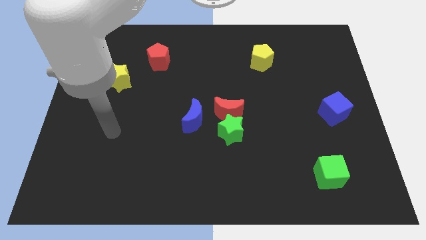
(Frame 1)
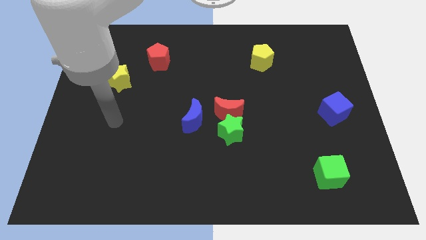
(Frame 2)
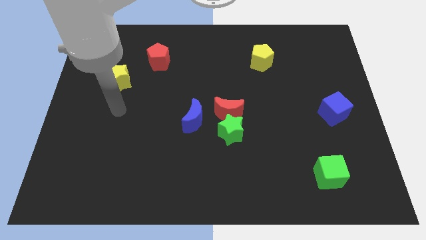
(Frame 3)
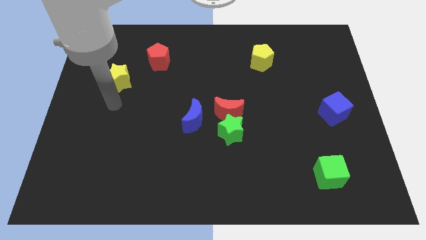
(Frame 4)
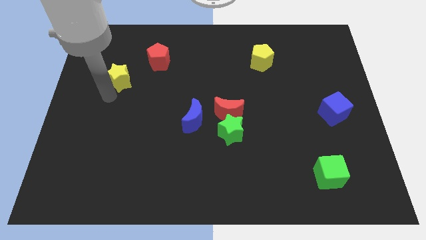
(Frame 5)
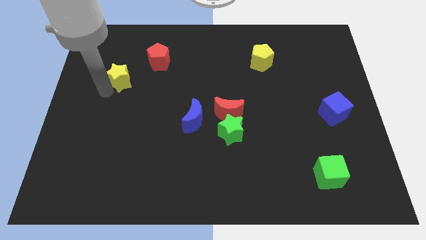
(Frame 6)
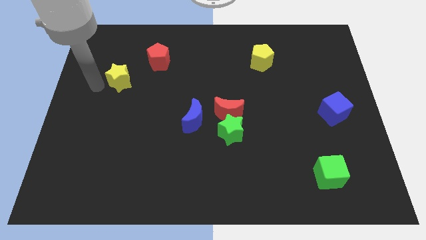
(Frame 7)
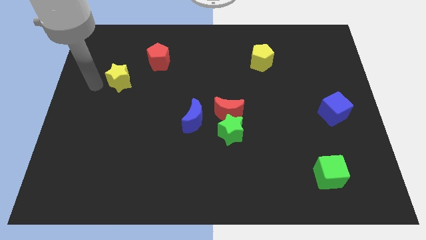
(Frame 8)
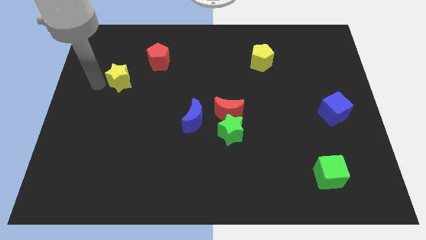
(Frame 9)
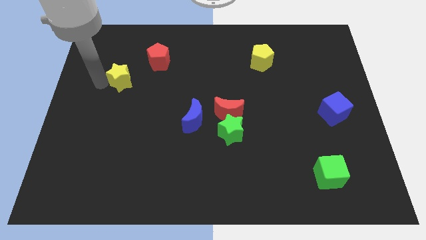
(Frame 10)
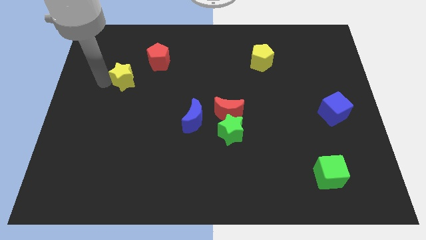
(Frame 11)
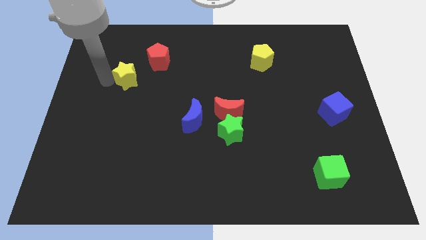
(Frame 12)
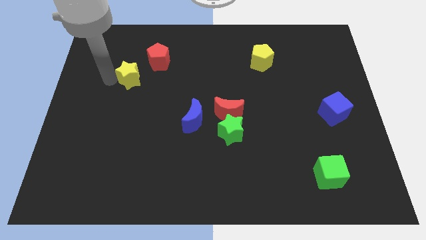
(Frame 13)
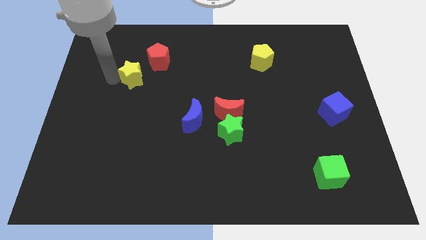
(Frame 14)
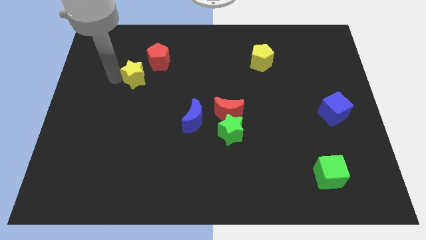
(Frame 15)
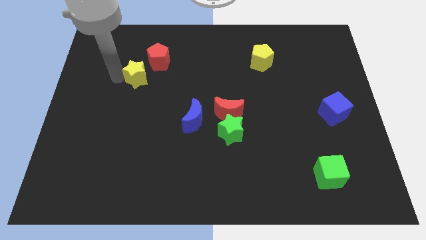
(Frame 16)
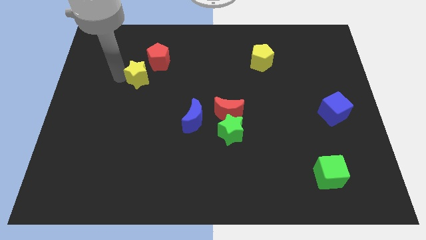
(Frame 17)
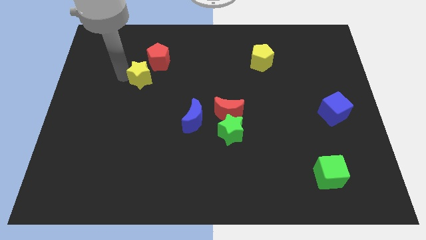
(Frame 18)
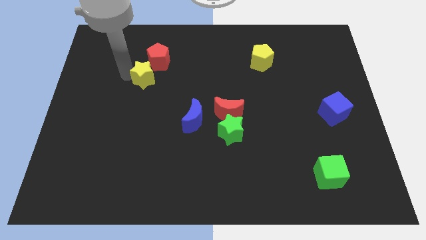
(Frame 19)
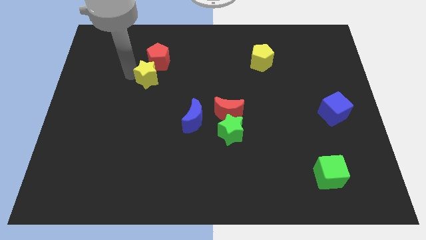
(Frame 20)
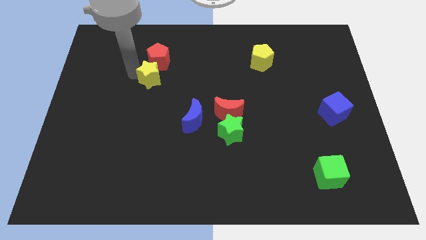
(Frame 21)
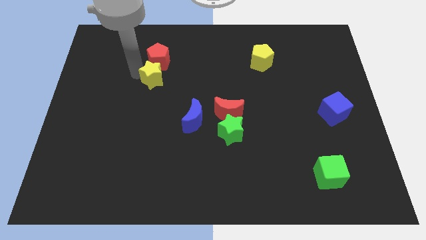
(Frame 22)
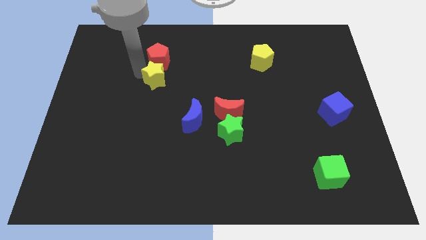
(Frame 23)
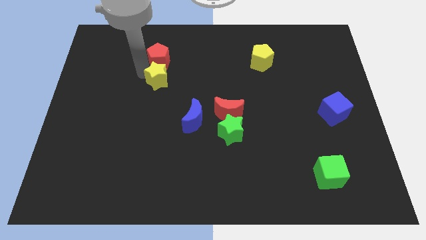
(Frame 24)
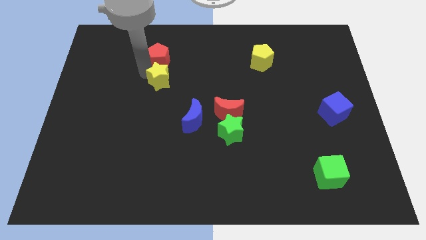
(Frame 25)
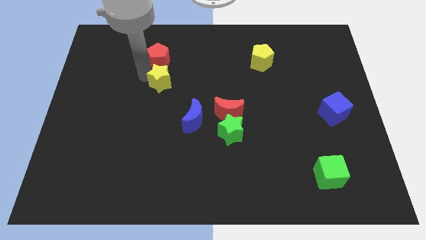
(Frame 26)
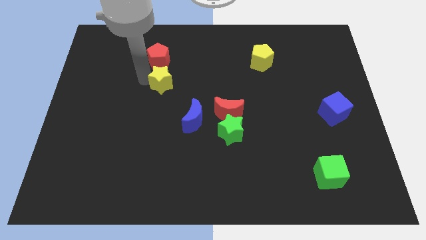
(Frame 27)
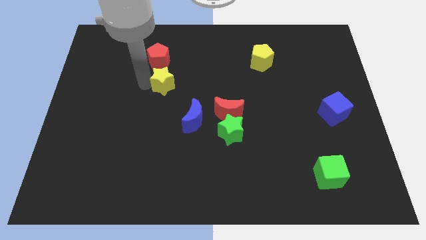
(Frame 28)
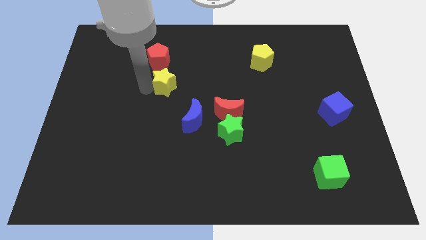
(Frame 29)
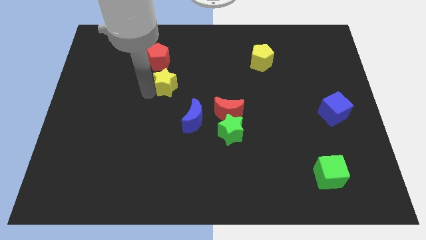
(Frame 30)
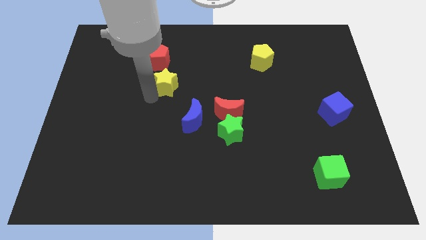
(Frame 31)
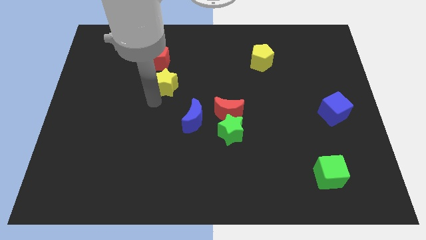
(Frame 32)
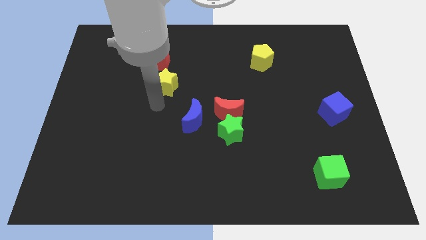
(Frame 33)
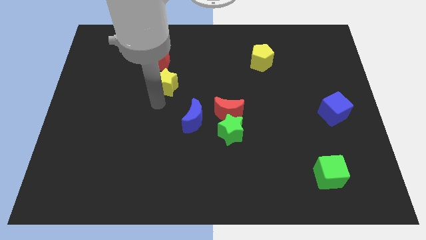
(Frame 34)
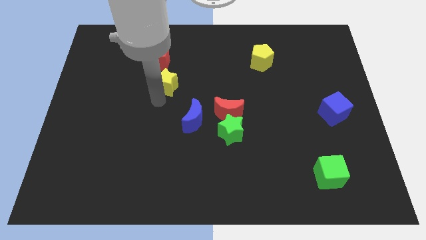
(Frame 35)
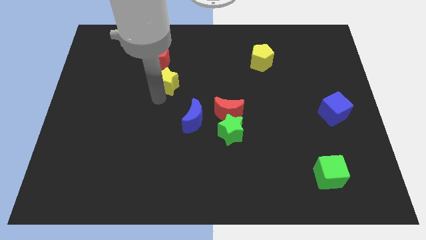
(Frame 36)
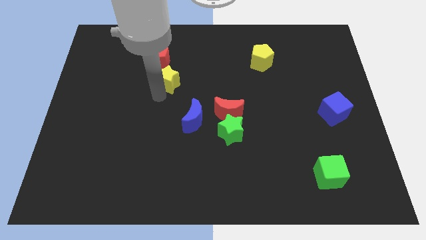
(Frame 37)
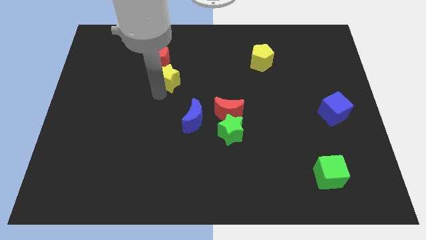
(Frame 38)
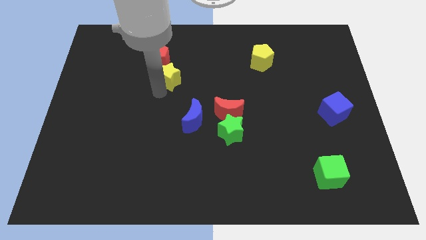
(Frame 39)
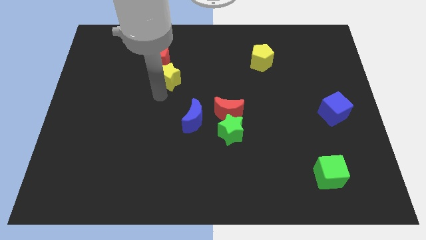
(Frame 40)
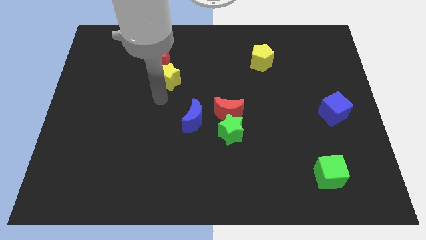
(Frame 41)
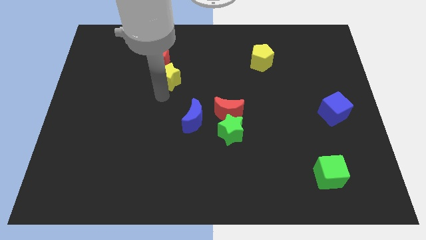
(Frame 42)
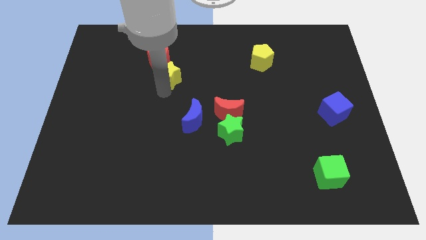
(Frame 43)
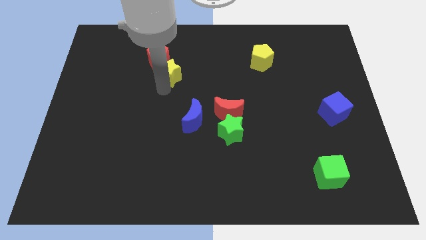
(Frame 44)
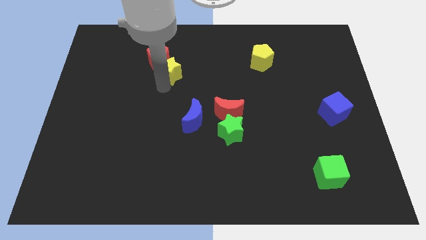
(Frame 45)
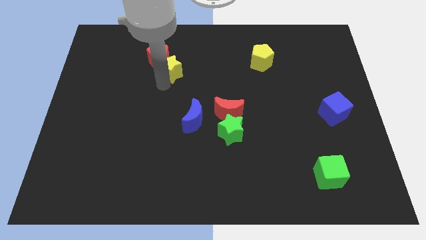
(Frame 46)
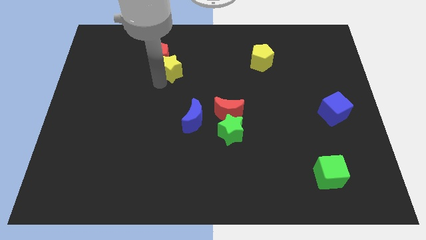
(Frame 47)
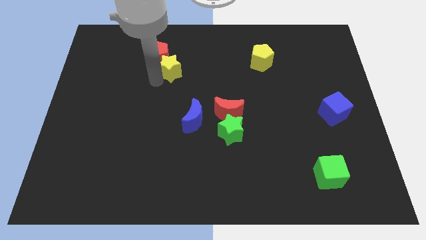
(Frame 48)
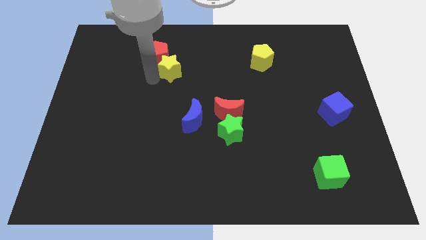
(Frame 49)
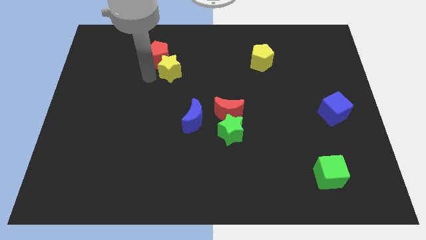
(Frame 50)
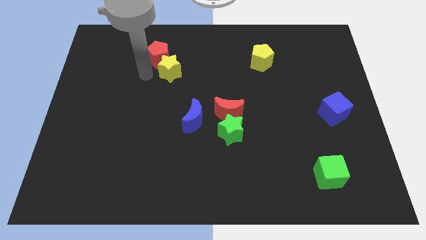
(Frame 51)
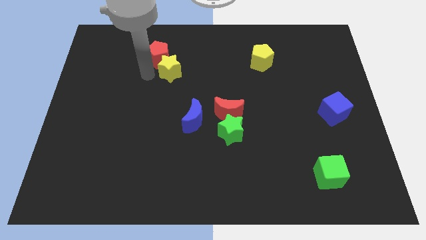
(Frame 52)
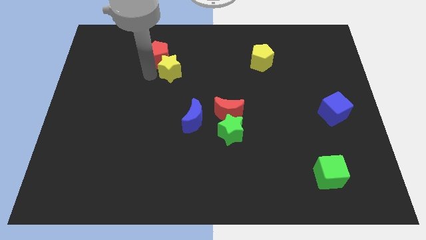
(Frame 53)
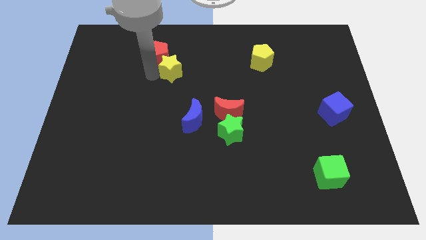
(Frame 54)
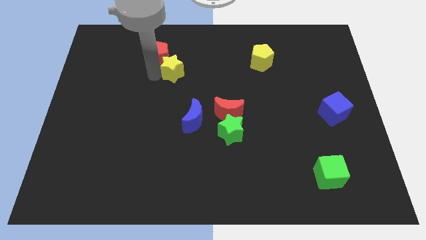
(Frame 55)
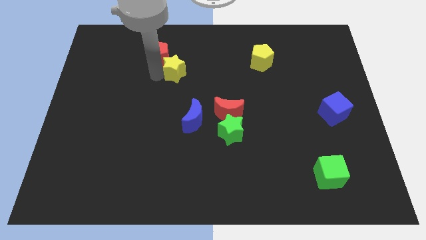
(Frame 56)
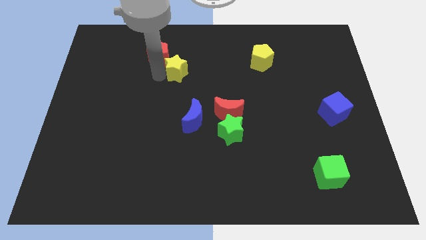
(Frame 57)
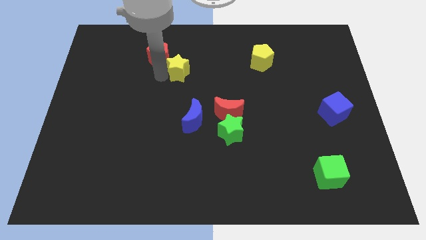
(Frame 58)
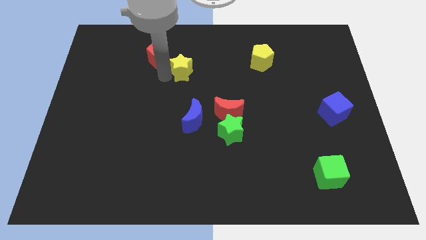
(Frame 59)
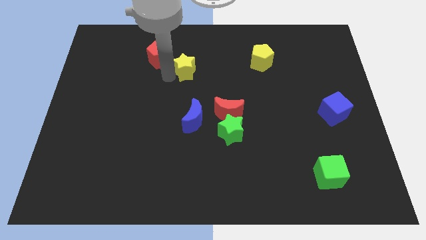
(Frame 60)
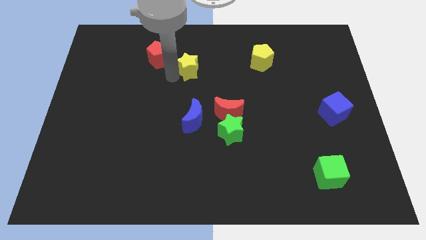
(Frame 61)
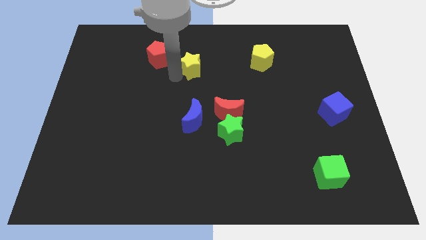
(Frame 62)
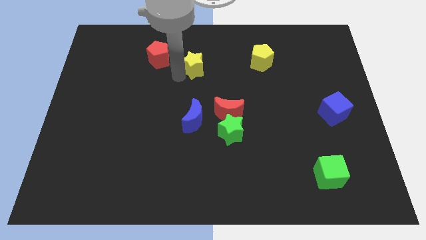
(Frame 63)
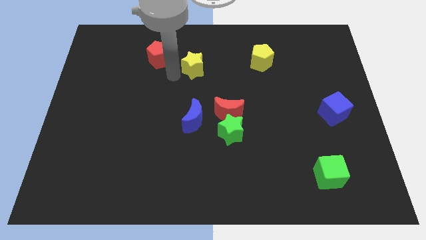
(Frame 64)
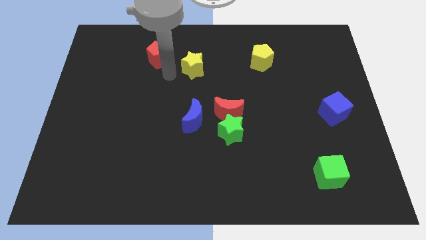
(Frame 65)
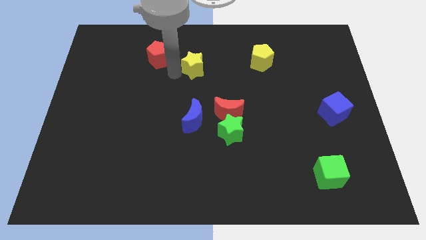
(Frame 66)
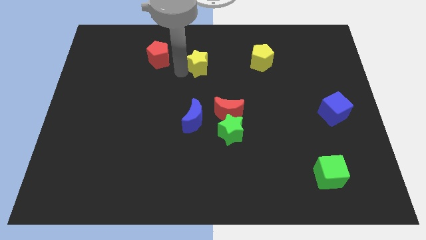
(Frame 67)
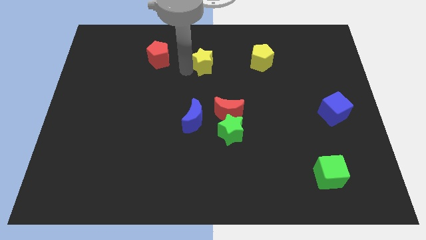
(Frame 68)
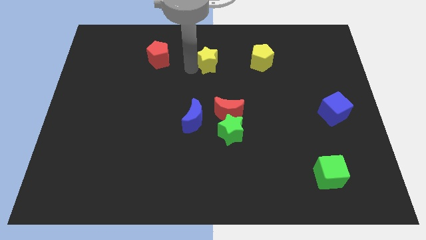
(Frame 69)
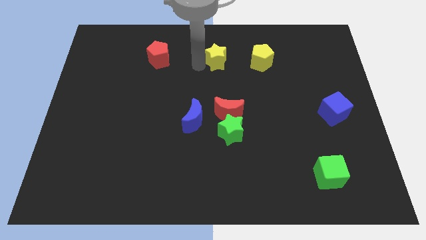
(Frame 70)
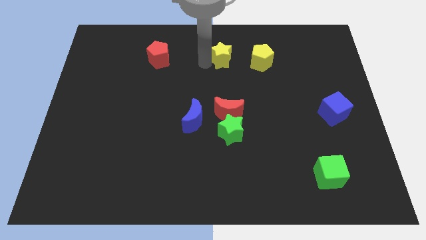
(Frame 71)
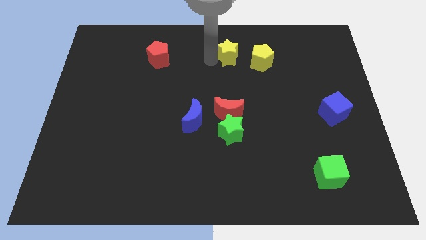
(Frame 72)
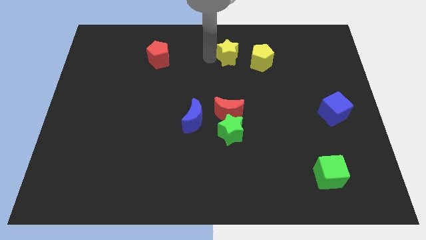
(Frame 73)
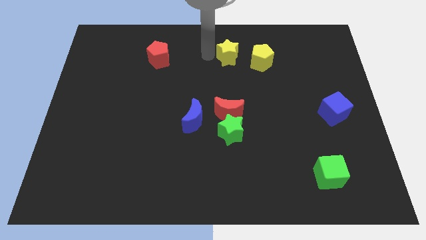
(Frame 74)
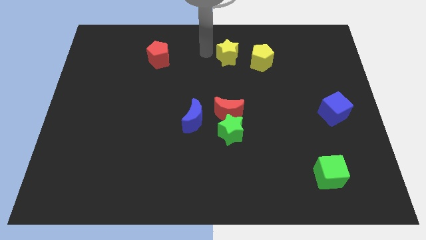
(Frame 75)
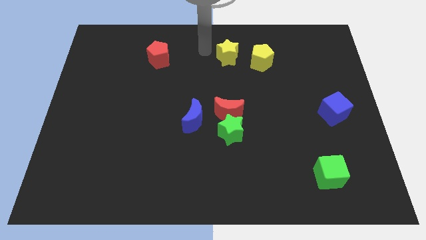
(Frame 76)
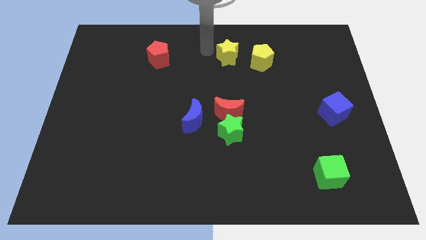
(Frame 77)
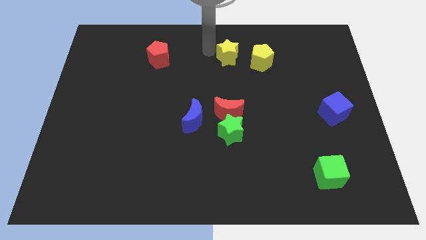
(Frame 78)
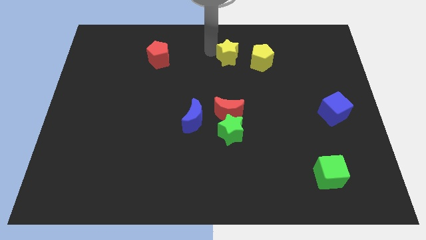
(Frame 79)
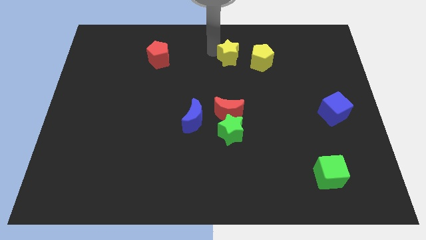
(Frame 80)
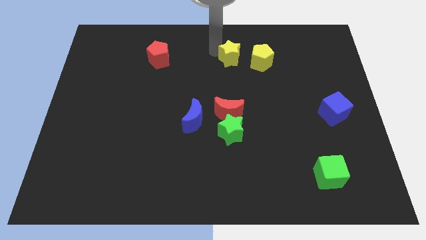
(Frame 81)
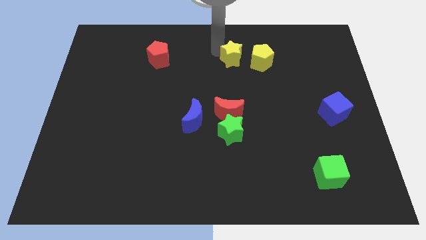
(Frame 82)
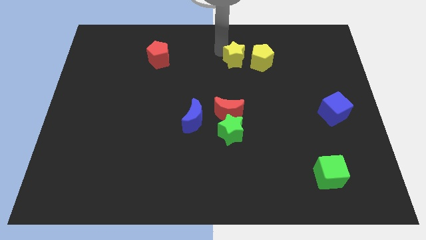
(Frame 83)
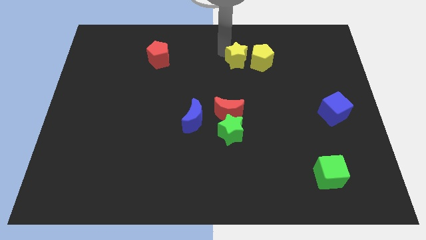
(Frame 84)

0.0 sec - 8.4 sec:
slide the yellow star to the yellow pentagon
